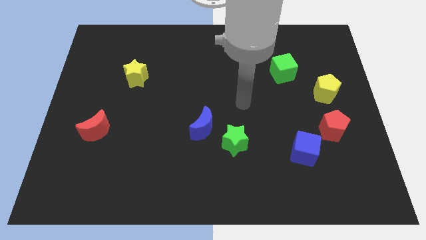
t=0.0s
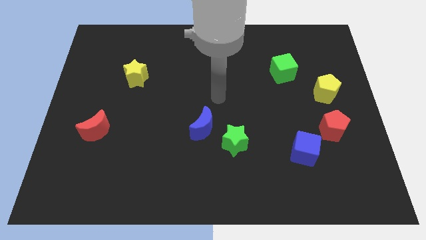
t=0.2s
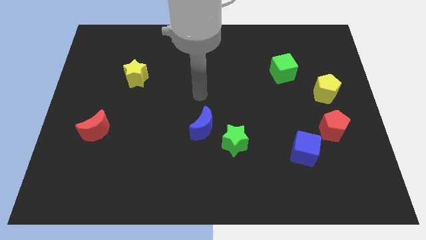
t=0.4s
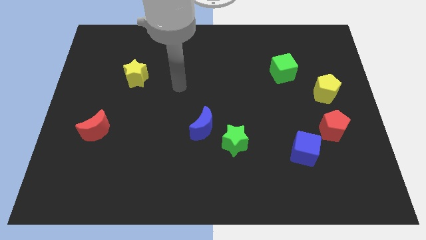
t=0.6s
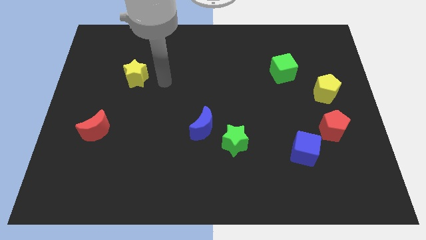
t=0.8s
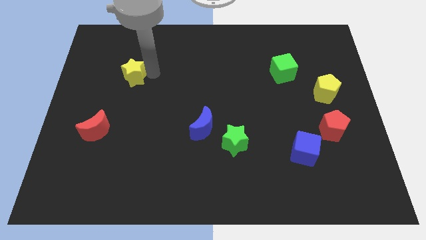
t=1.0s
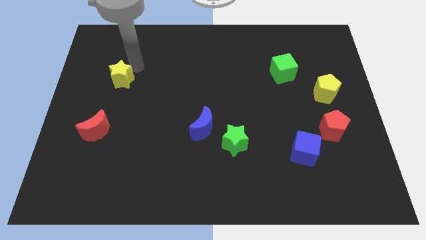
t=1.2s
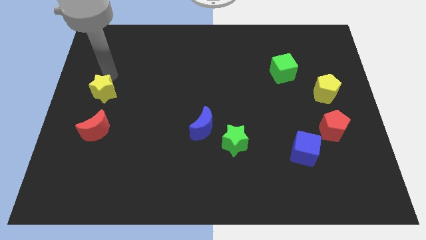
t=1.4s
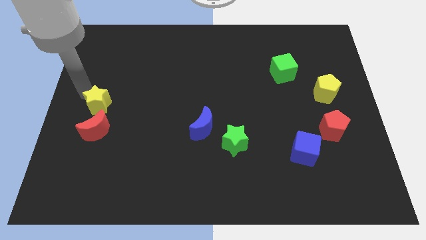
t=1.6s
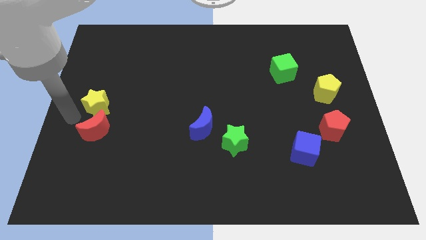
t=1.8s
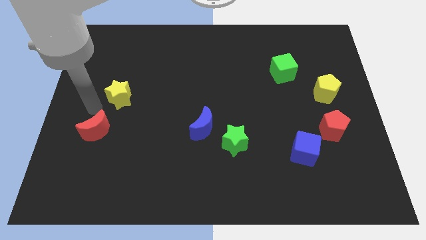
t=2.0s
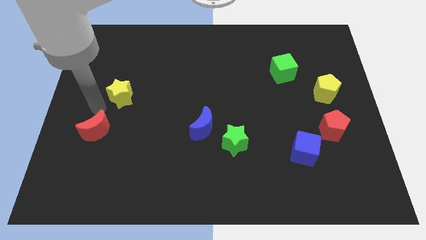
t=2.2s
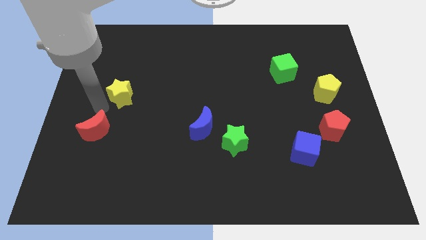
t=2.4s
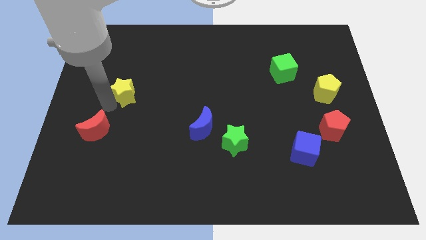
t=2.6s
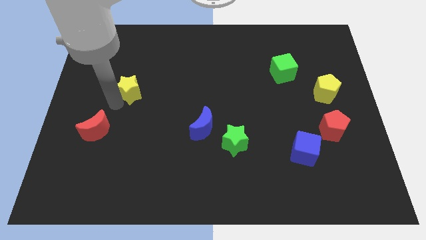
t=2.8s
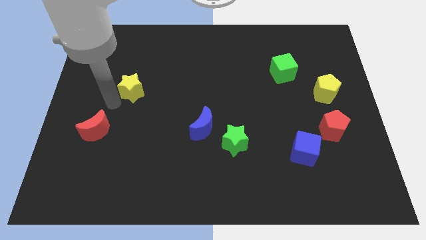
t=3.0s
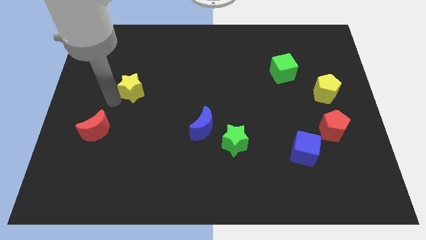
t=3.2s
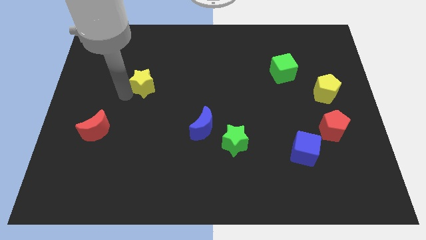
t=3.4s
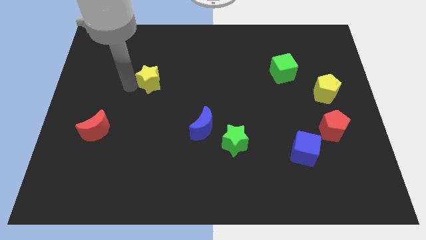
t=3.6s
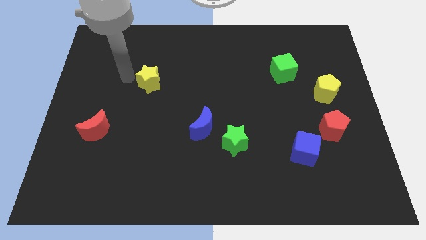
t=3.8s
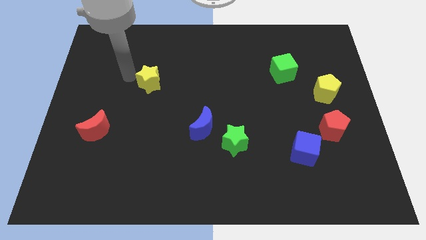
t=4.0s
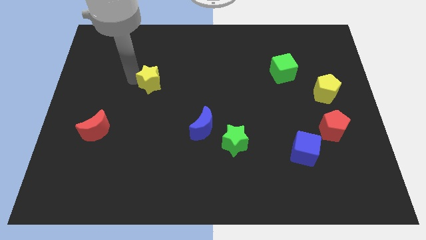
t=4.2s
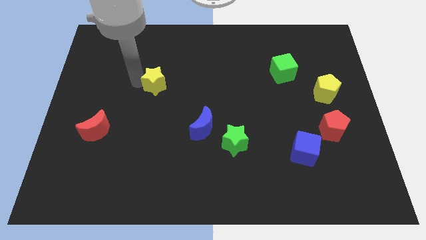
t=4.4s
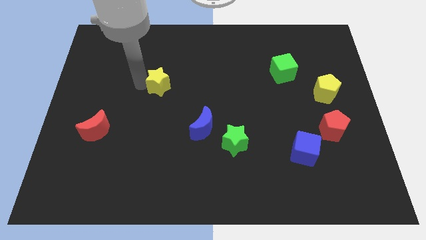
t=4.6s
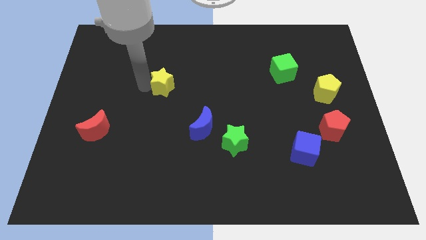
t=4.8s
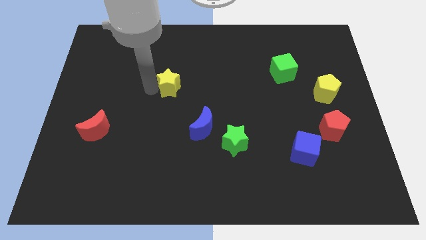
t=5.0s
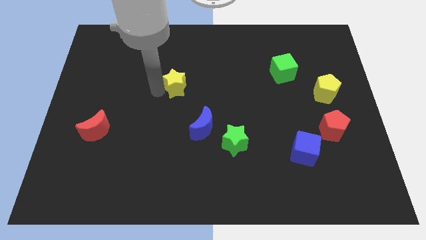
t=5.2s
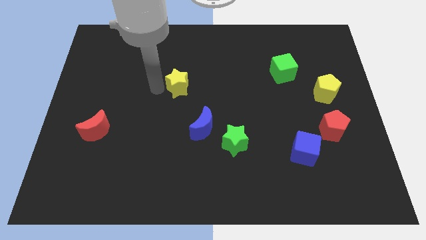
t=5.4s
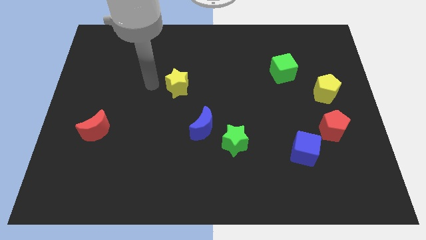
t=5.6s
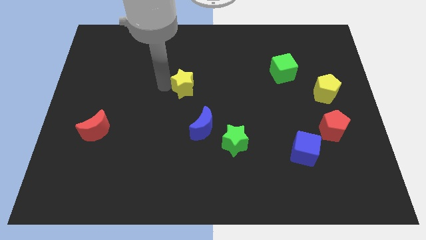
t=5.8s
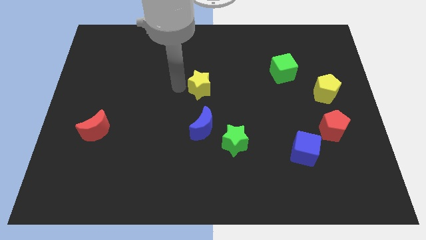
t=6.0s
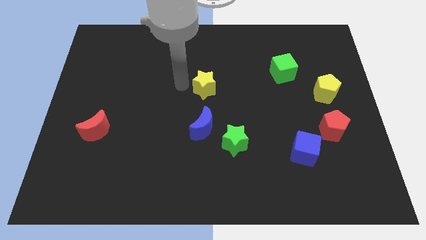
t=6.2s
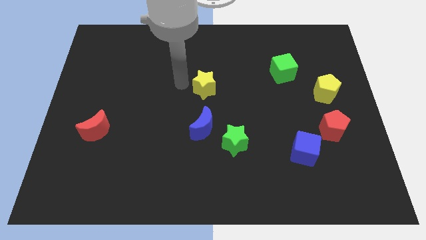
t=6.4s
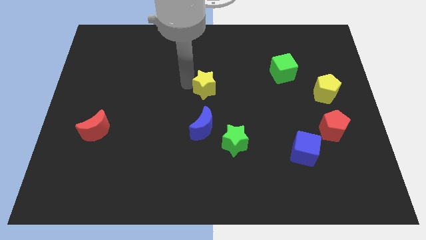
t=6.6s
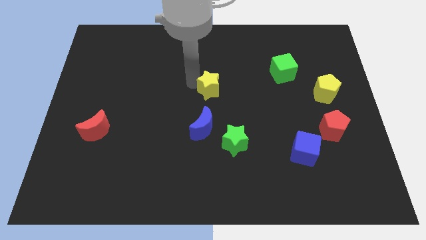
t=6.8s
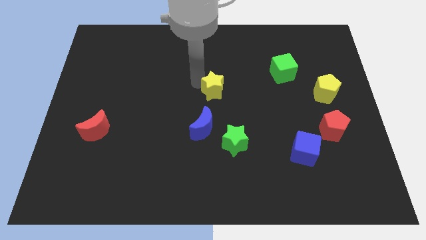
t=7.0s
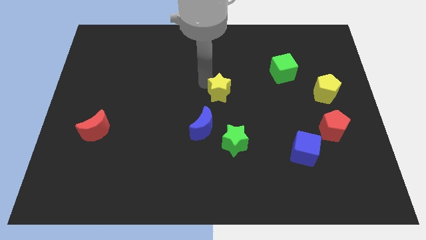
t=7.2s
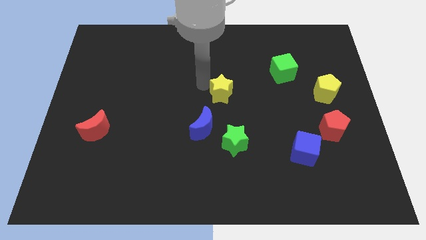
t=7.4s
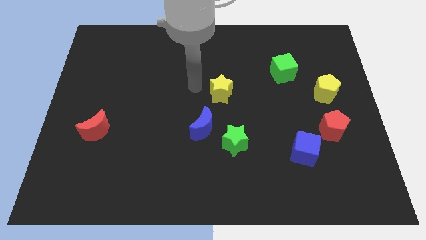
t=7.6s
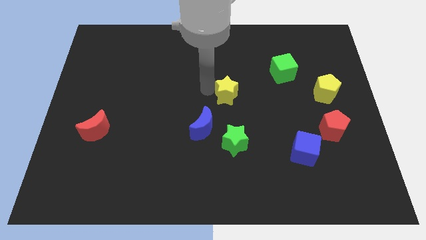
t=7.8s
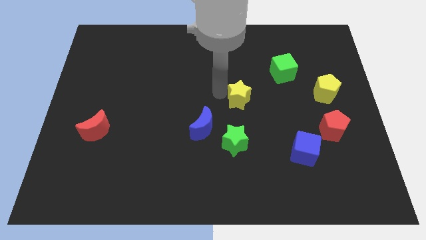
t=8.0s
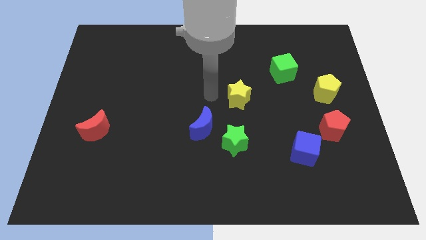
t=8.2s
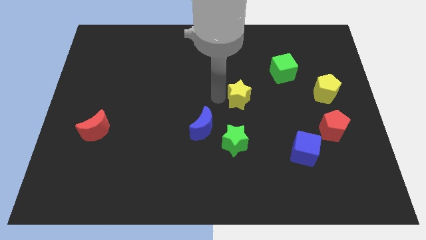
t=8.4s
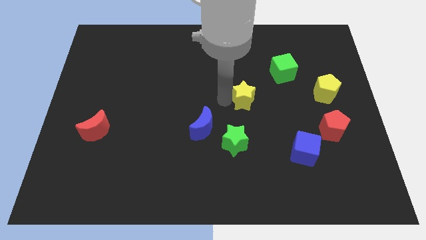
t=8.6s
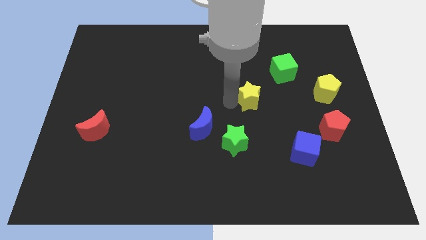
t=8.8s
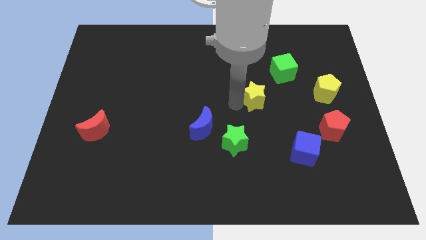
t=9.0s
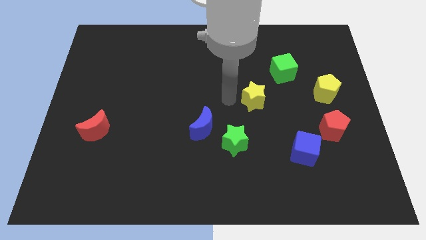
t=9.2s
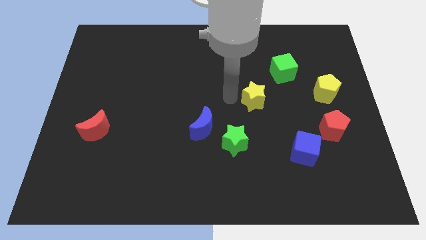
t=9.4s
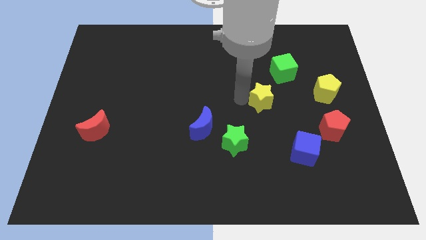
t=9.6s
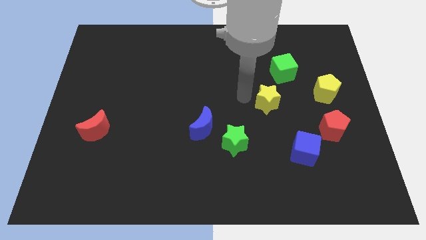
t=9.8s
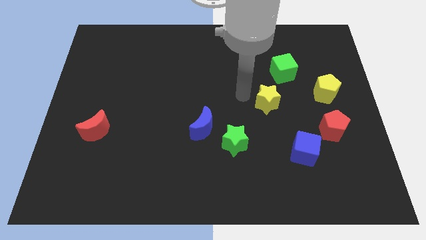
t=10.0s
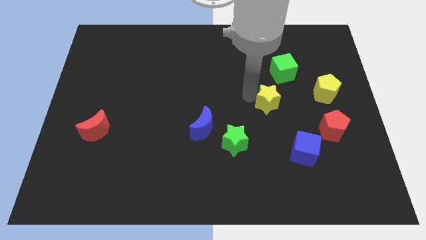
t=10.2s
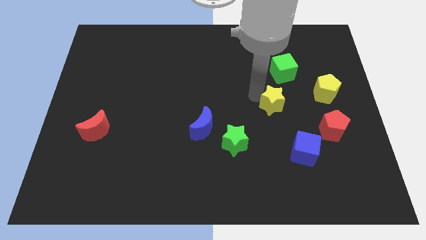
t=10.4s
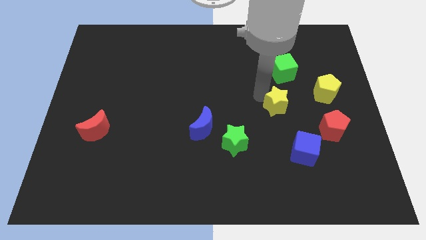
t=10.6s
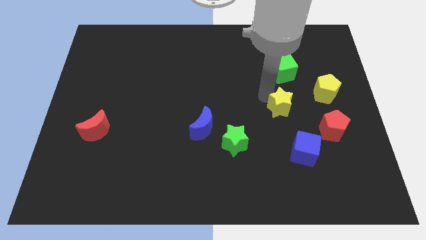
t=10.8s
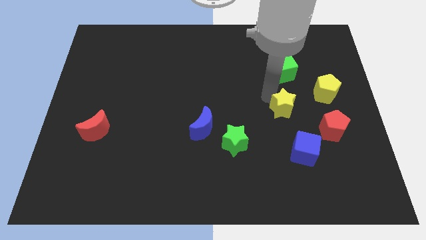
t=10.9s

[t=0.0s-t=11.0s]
put the yellow star to the top left side of the red pentagon

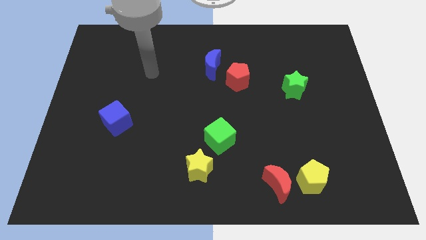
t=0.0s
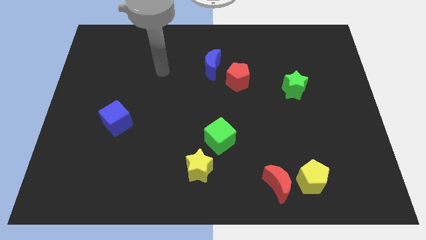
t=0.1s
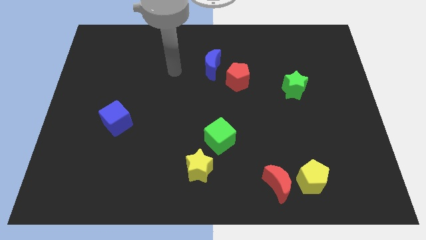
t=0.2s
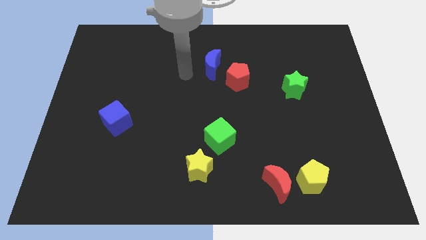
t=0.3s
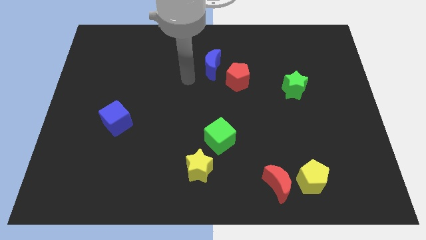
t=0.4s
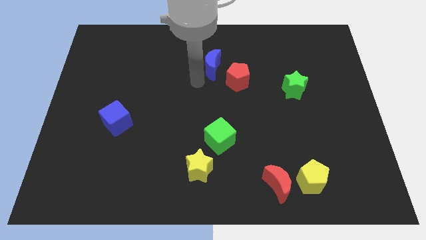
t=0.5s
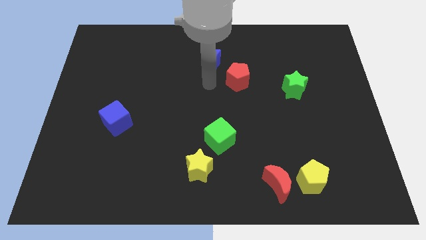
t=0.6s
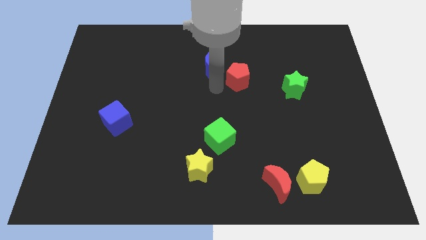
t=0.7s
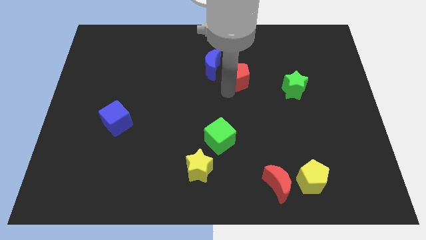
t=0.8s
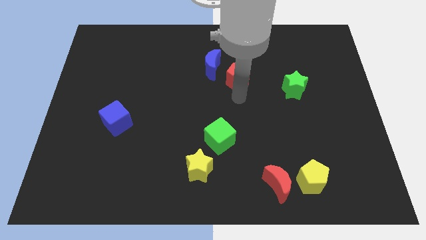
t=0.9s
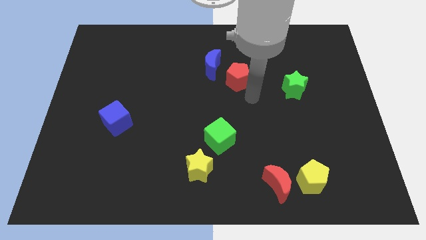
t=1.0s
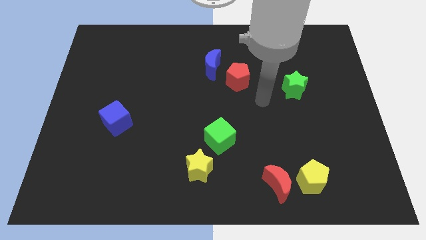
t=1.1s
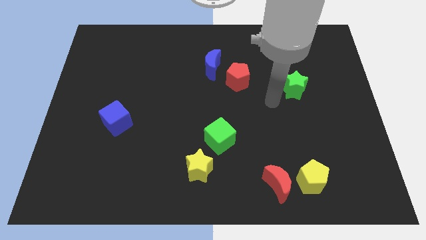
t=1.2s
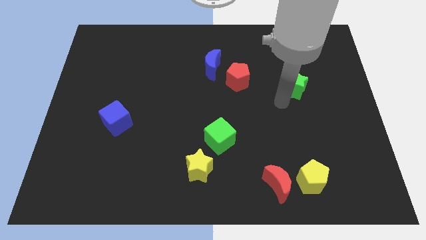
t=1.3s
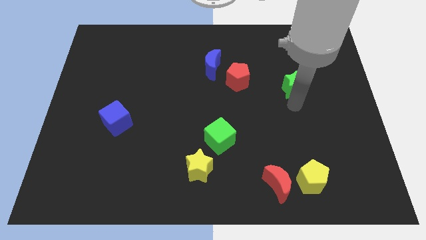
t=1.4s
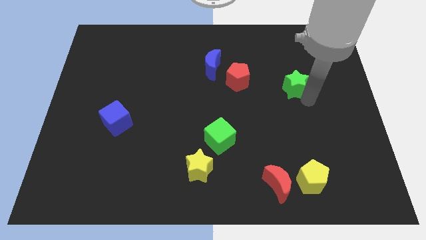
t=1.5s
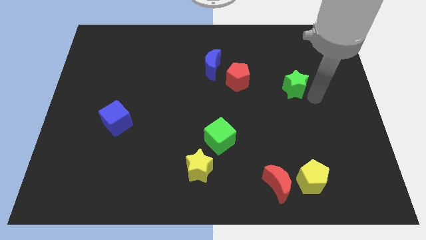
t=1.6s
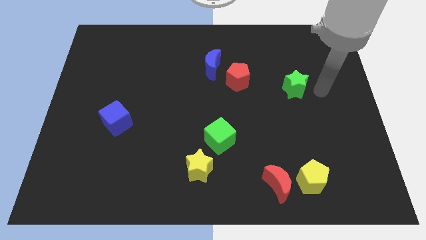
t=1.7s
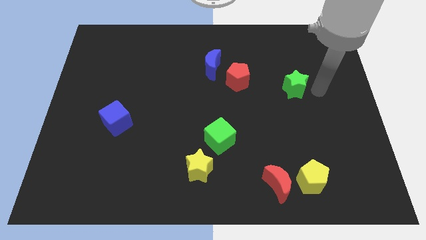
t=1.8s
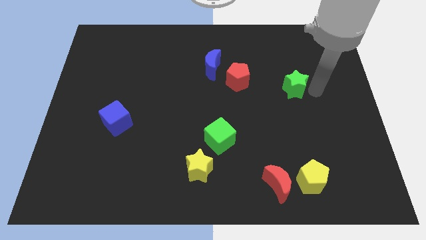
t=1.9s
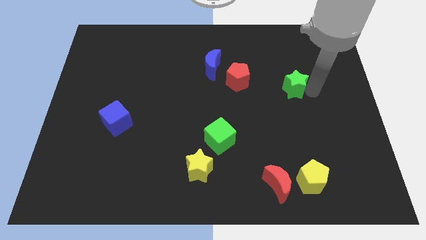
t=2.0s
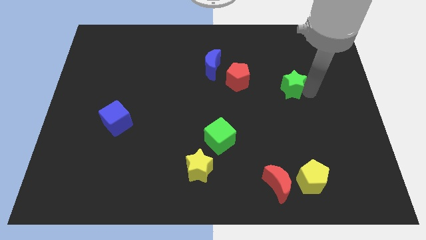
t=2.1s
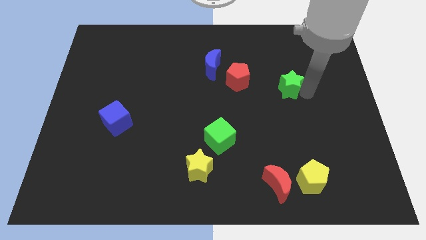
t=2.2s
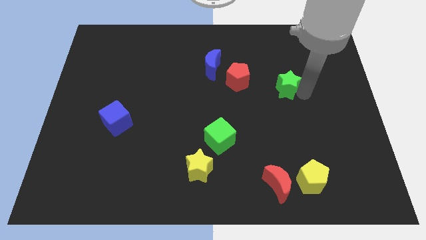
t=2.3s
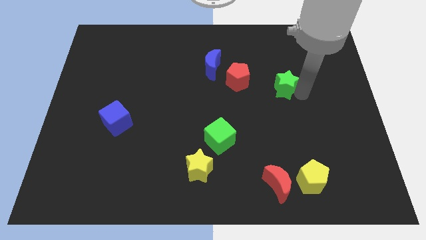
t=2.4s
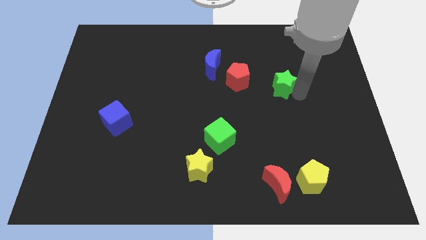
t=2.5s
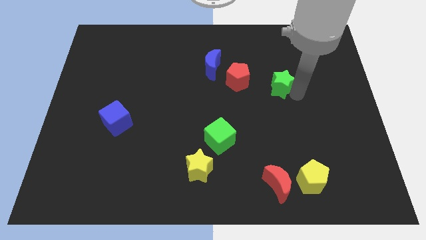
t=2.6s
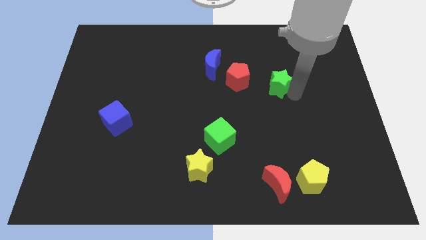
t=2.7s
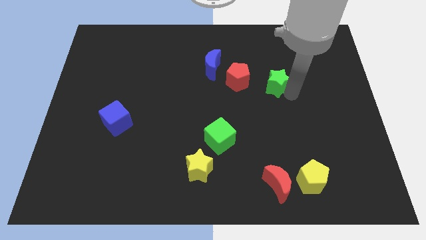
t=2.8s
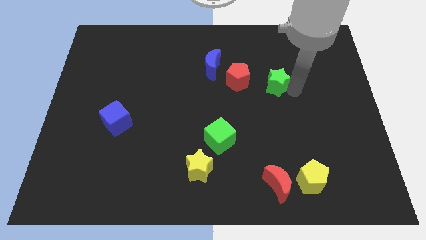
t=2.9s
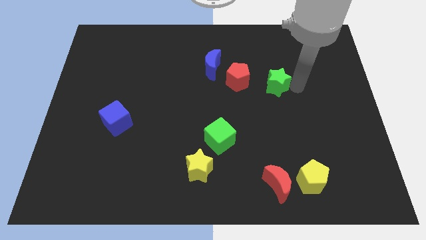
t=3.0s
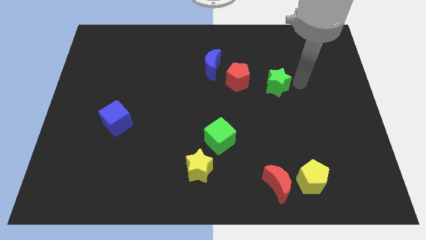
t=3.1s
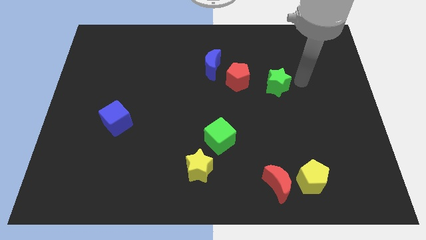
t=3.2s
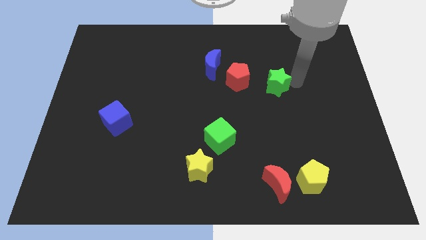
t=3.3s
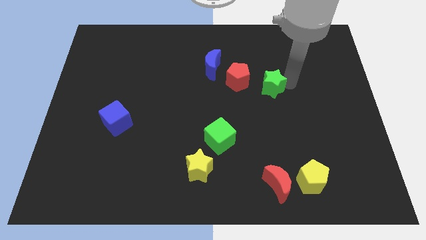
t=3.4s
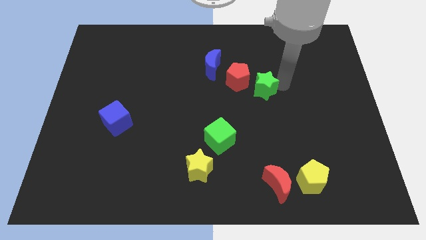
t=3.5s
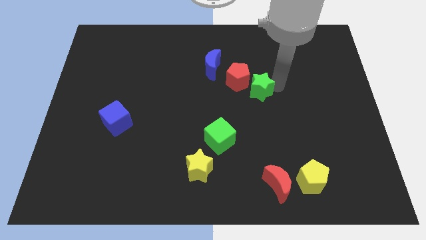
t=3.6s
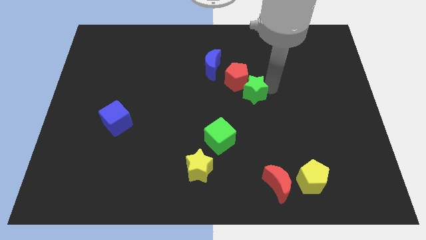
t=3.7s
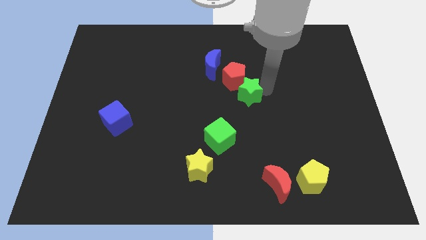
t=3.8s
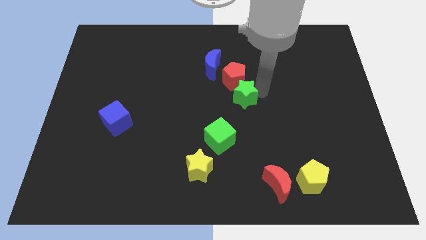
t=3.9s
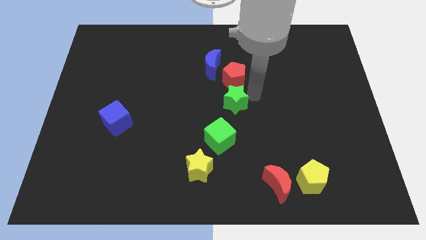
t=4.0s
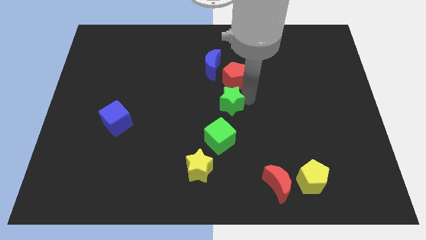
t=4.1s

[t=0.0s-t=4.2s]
slide the green star to the bottom of the blue moon
